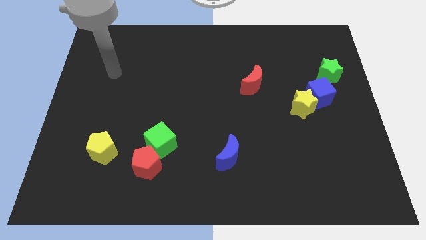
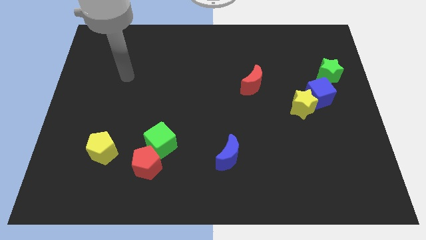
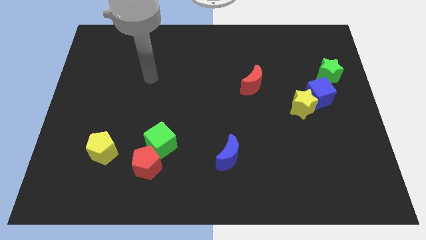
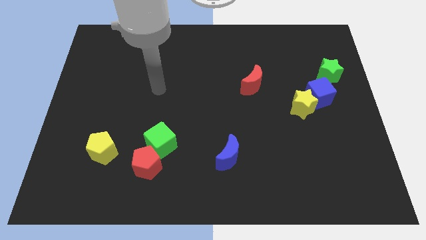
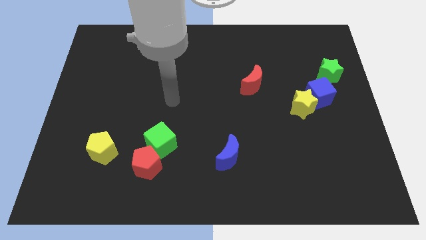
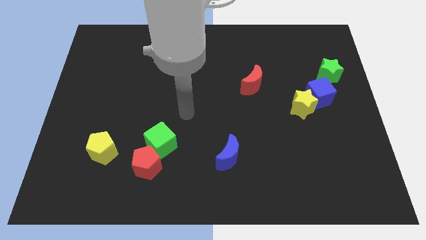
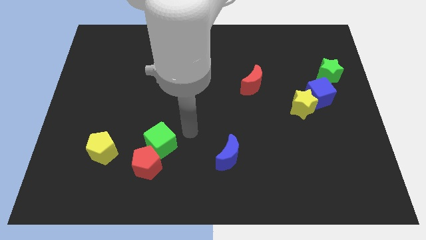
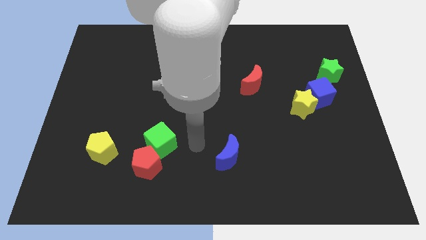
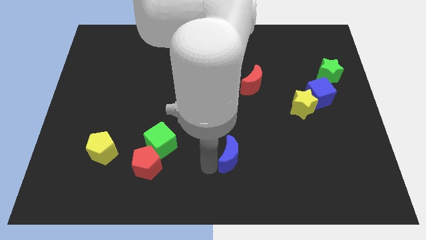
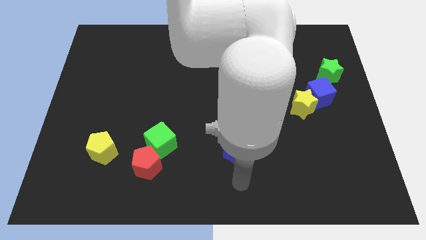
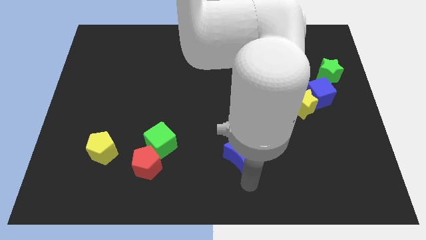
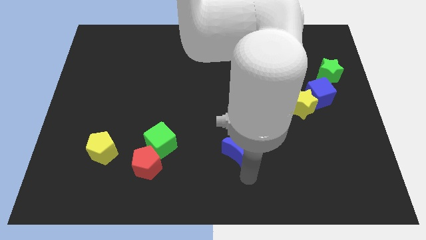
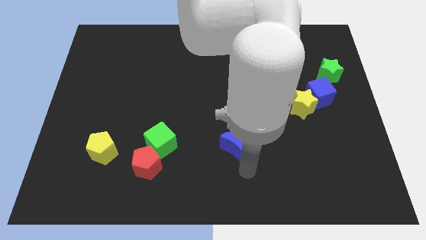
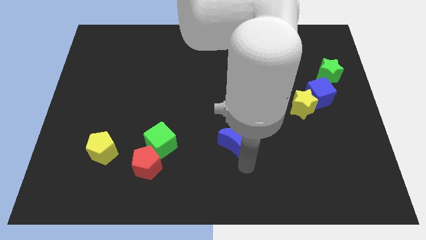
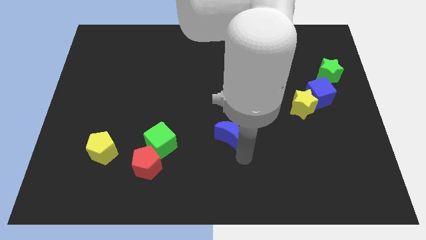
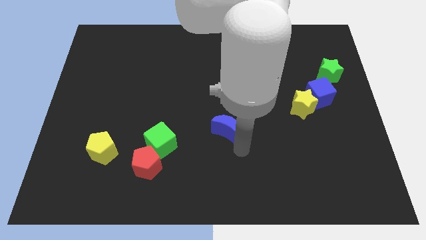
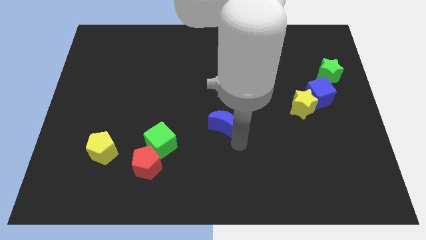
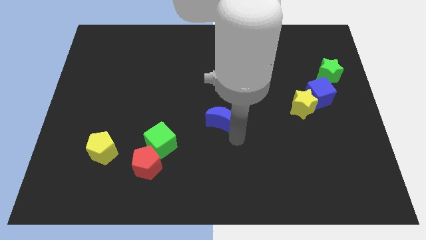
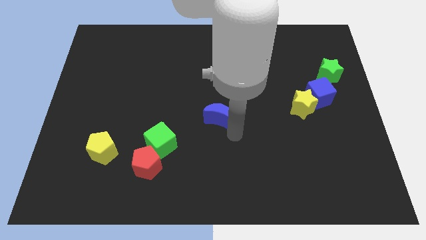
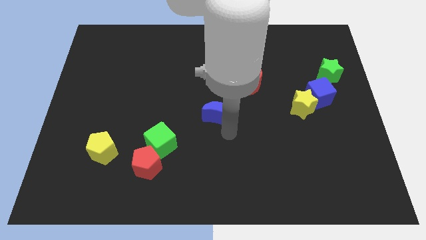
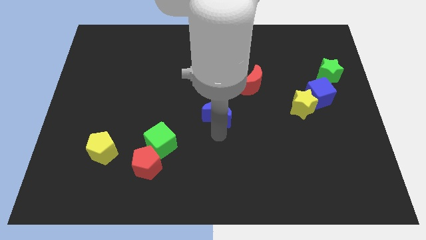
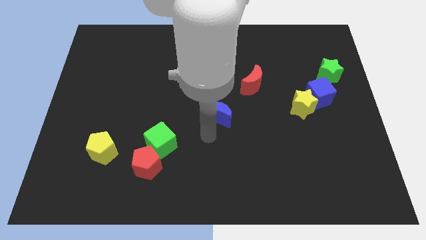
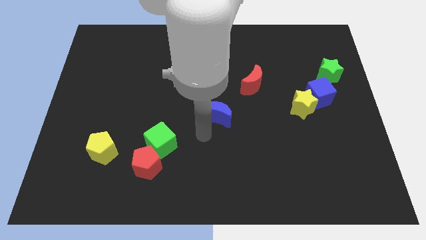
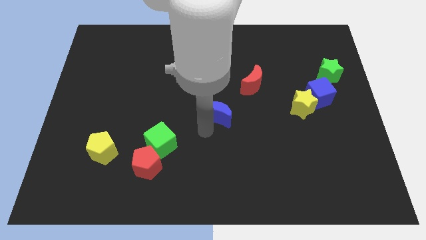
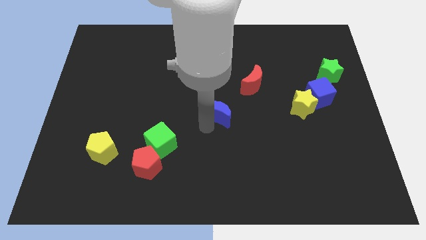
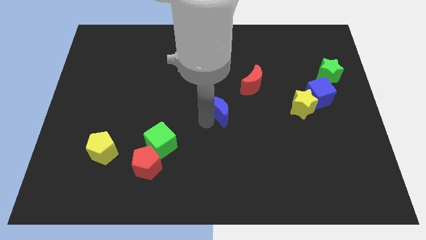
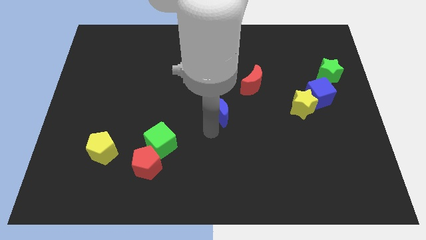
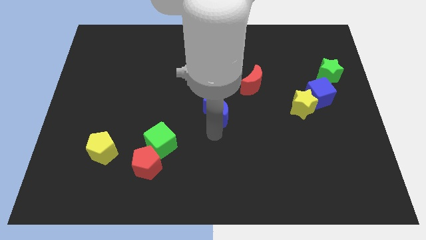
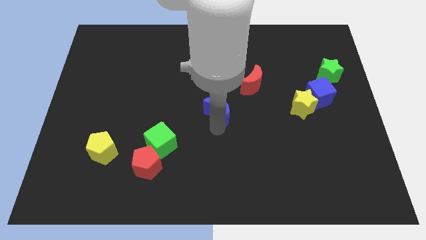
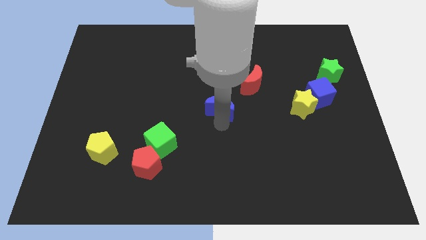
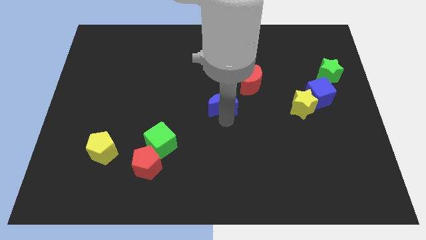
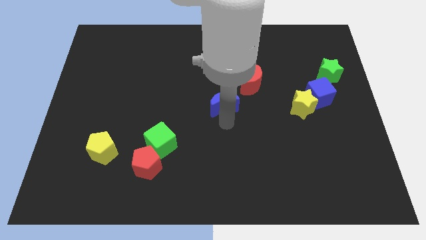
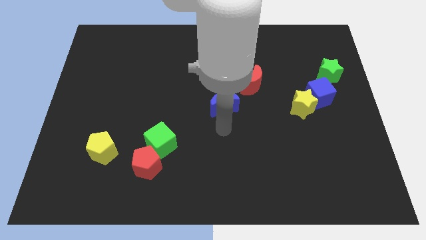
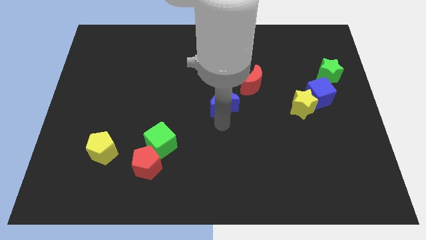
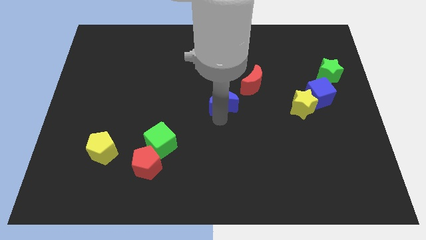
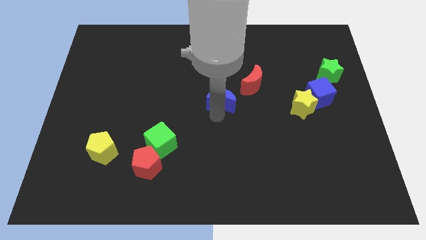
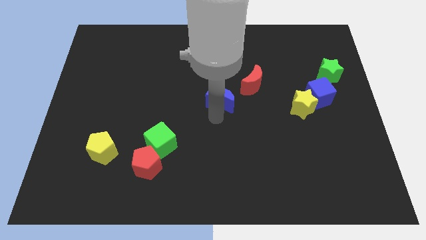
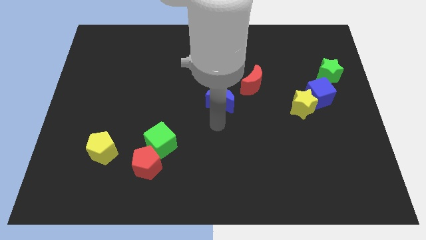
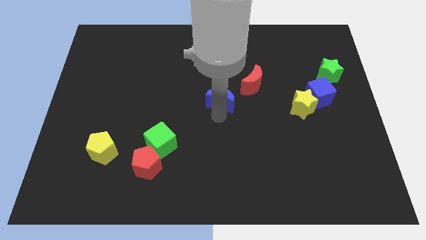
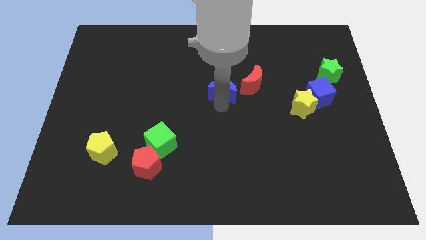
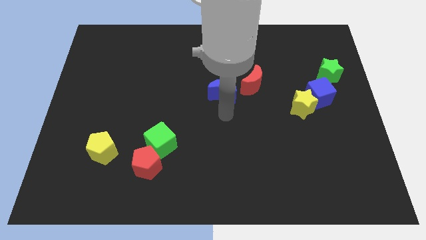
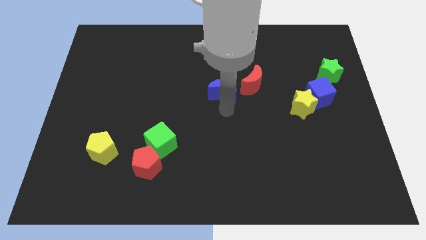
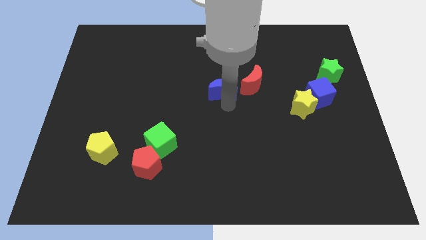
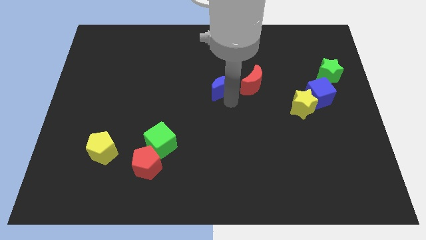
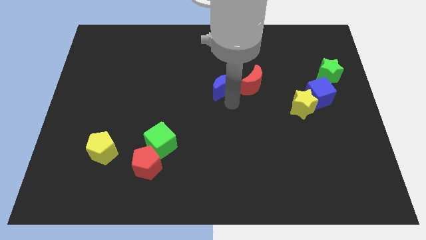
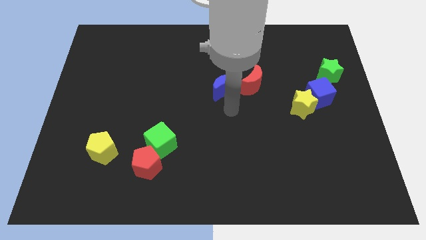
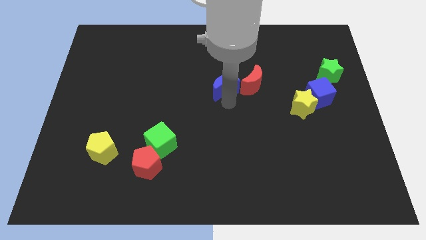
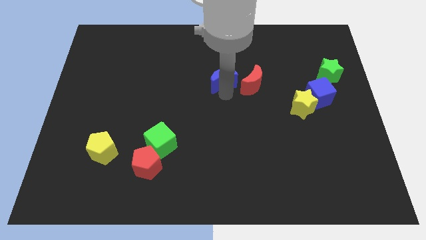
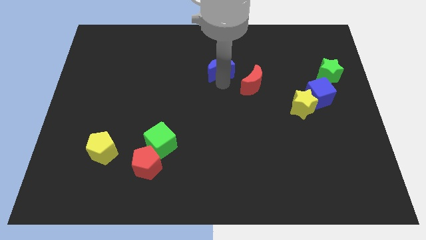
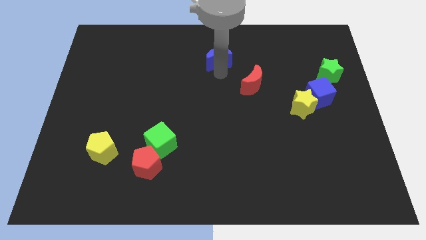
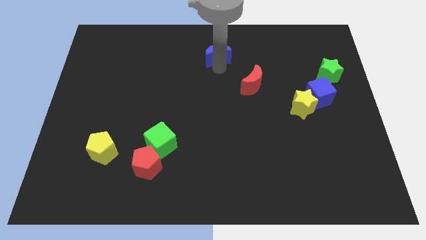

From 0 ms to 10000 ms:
slide the blue moon to the towards your base

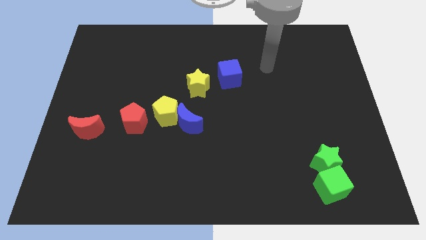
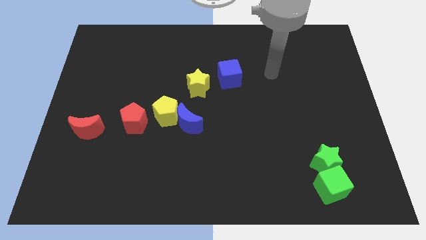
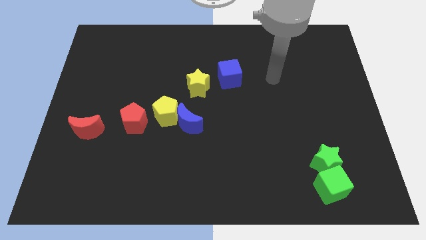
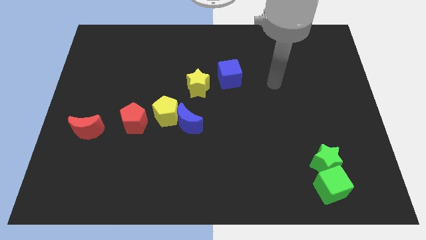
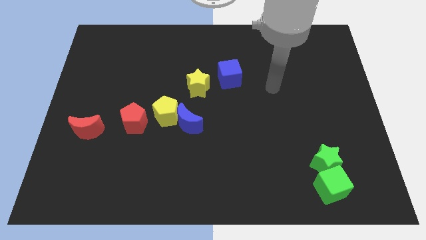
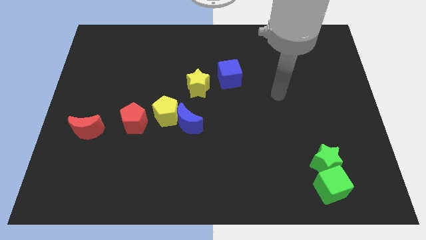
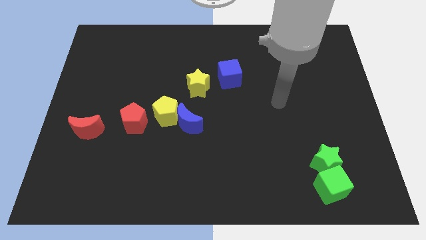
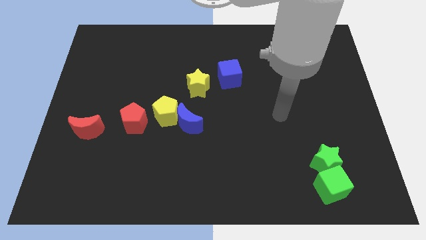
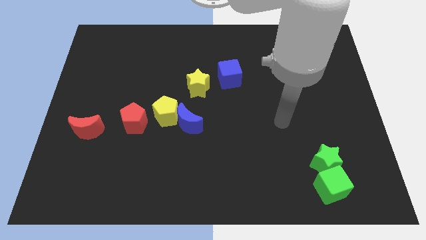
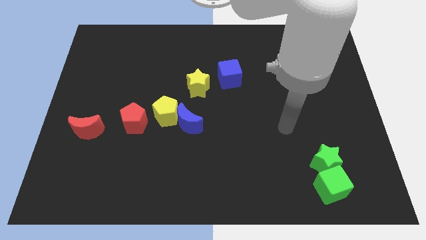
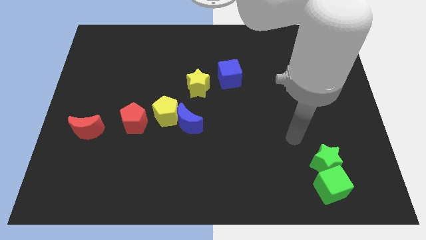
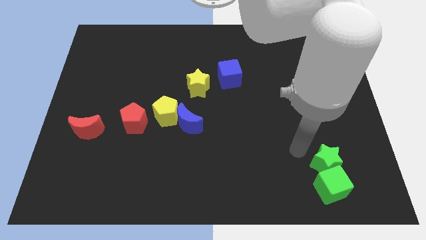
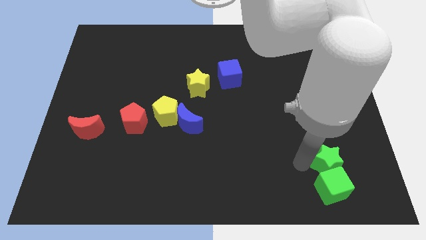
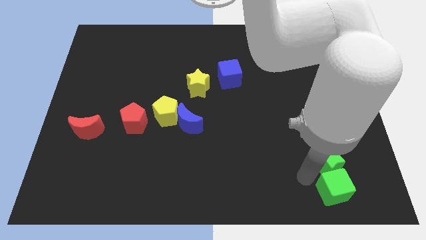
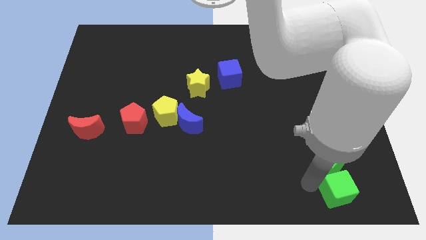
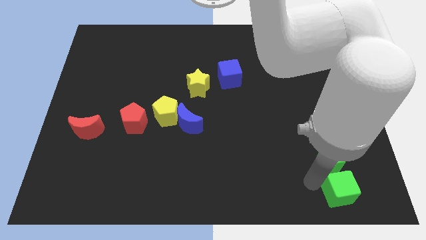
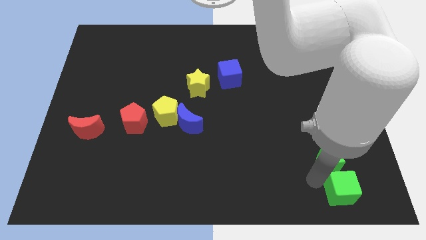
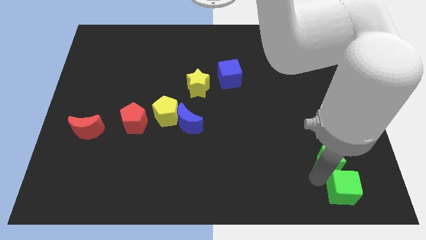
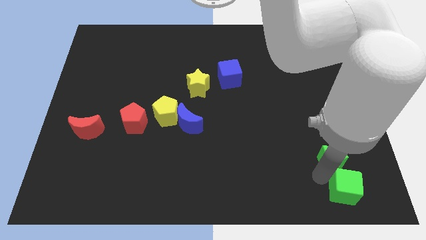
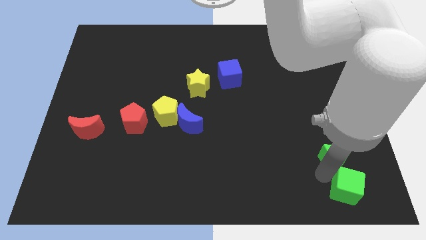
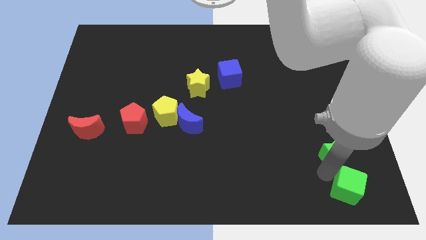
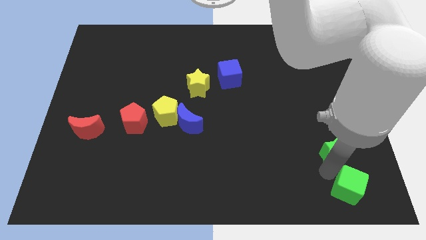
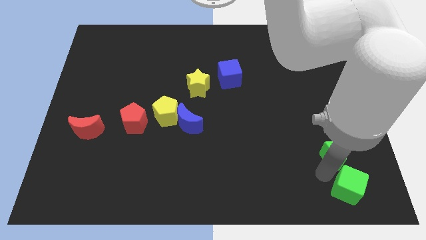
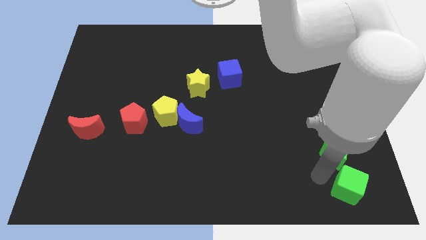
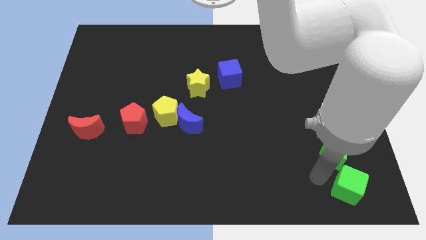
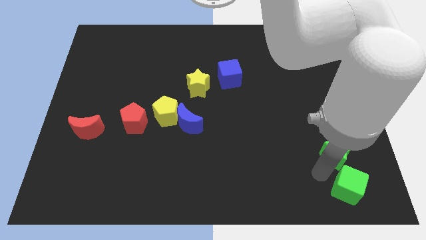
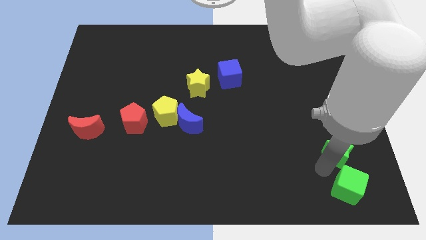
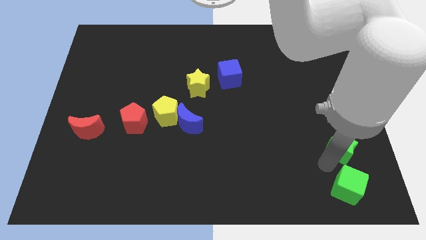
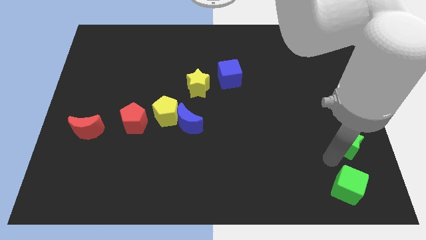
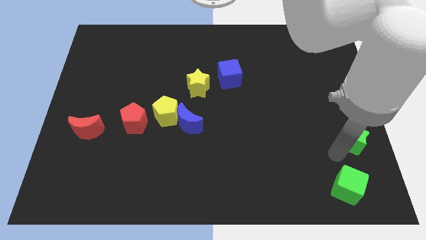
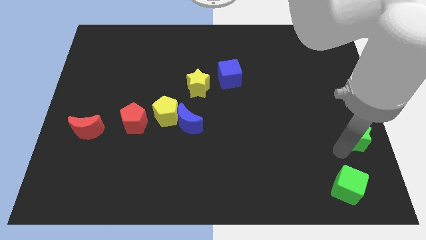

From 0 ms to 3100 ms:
move the green star to the center right
